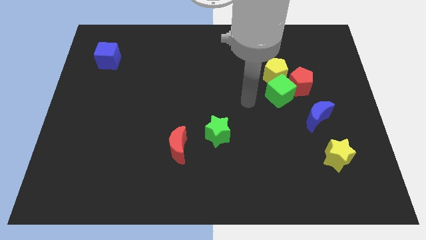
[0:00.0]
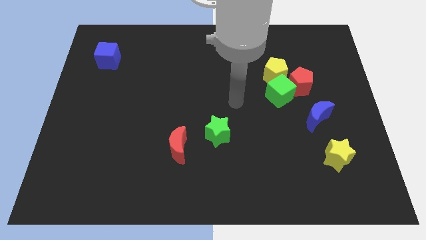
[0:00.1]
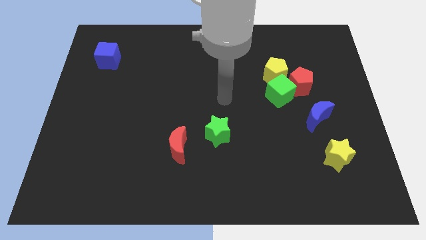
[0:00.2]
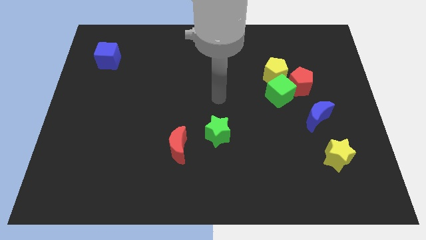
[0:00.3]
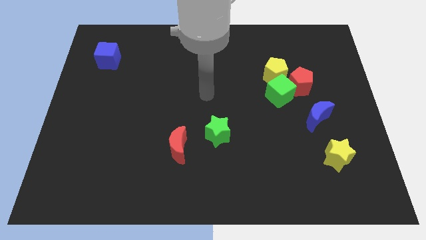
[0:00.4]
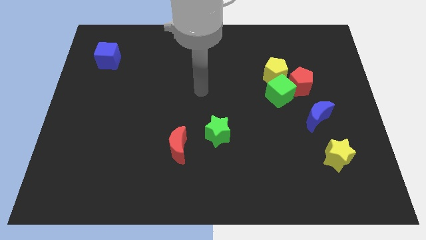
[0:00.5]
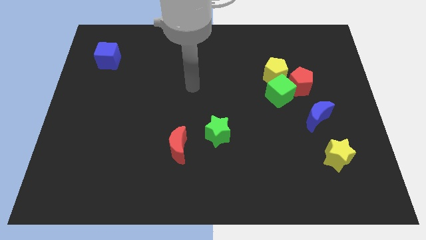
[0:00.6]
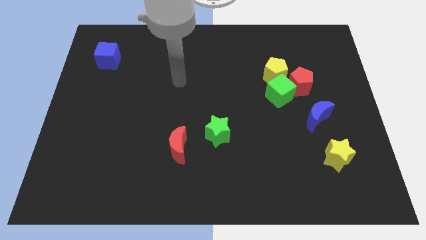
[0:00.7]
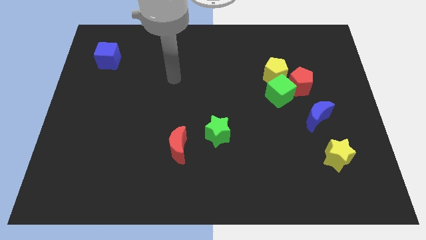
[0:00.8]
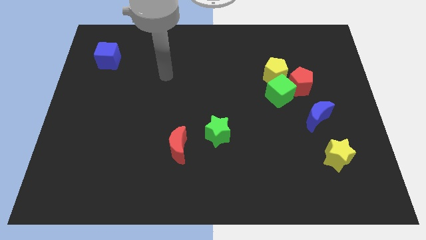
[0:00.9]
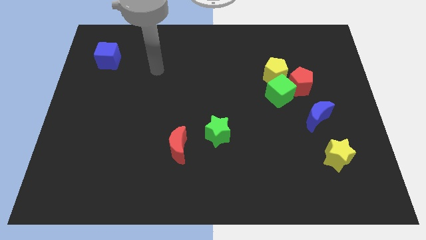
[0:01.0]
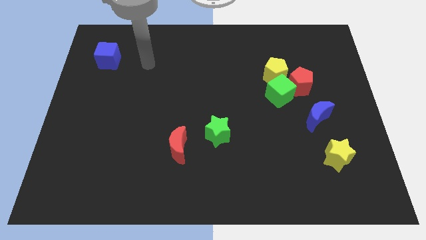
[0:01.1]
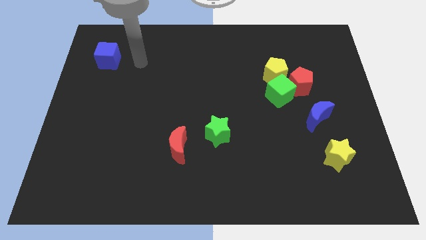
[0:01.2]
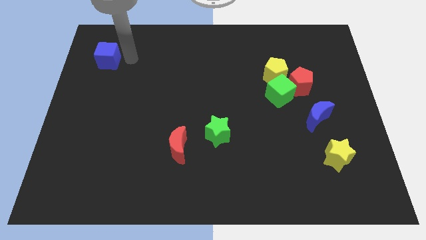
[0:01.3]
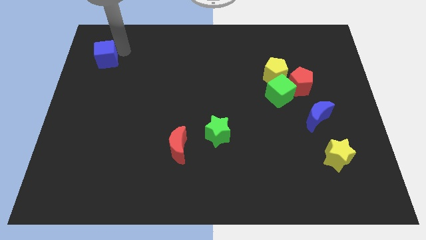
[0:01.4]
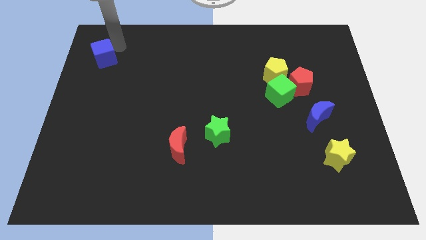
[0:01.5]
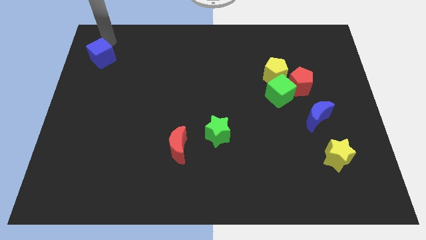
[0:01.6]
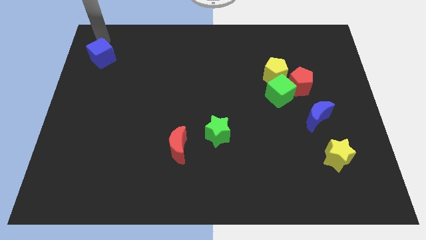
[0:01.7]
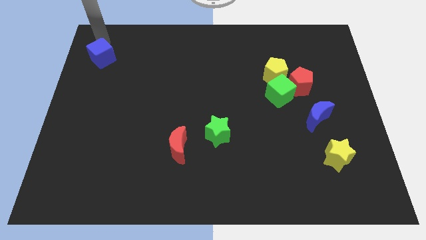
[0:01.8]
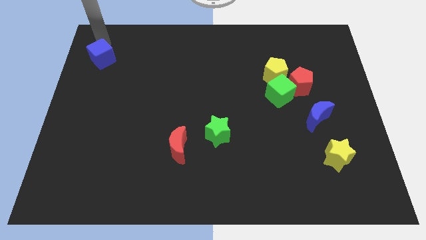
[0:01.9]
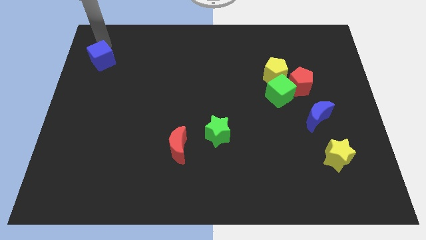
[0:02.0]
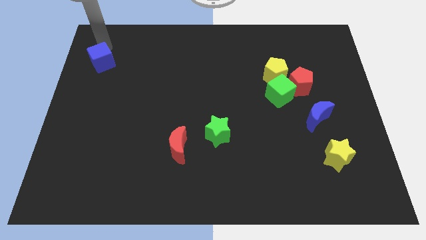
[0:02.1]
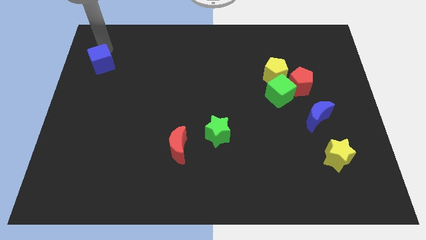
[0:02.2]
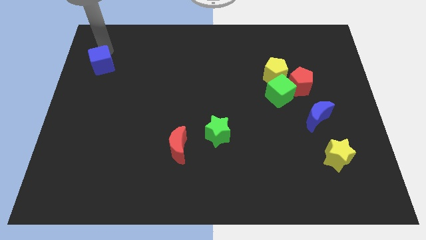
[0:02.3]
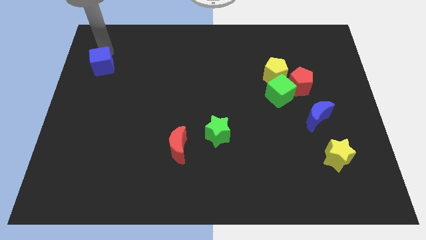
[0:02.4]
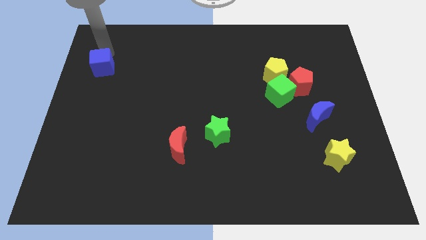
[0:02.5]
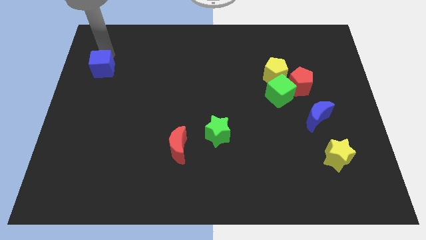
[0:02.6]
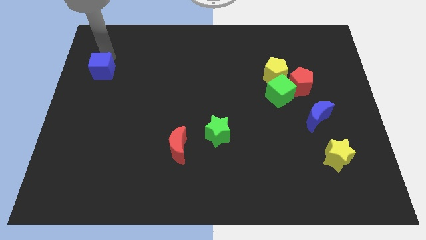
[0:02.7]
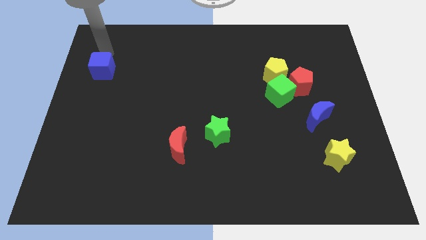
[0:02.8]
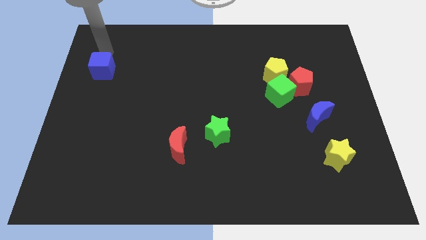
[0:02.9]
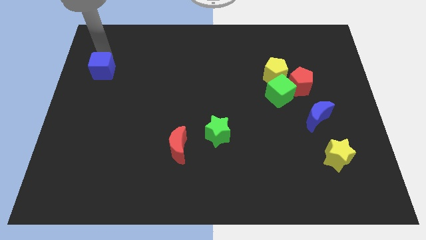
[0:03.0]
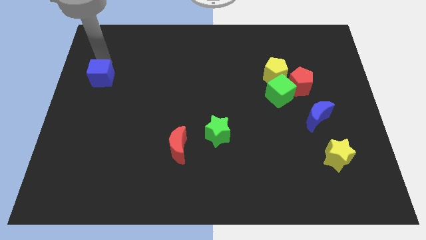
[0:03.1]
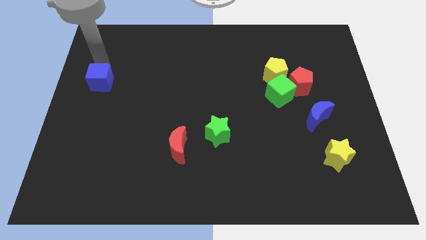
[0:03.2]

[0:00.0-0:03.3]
move the blue cube slightly down

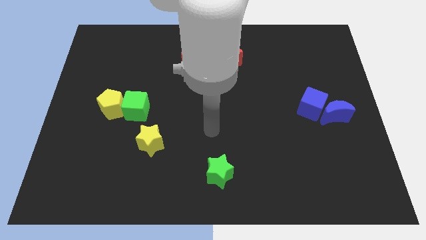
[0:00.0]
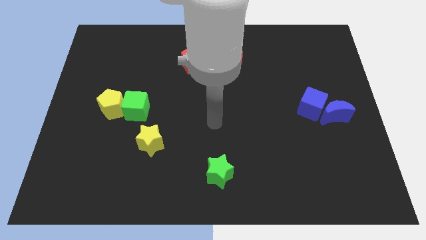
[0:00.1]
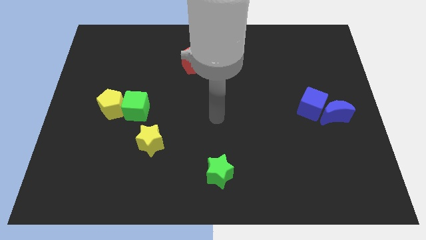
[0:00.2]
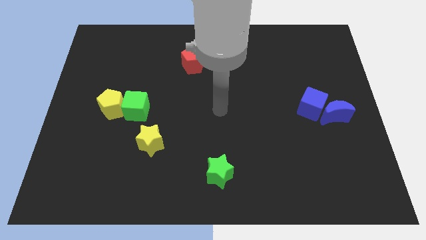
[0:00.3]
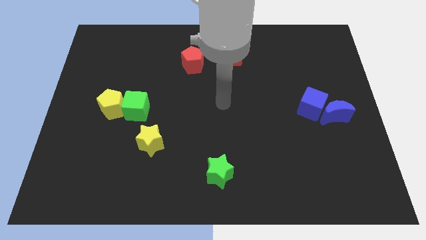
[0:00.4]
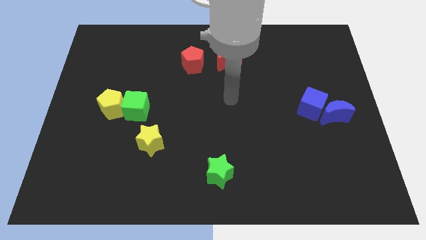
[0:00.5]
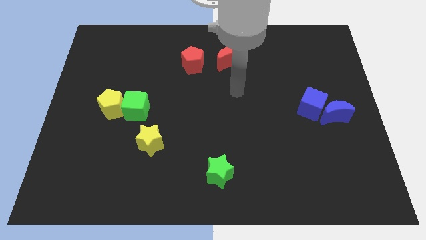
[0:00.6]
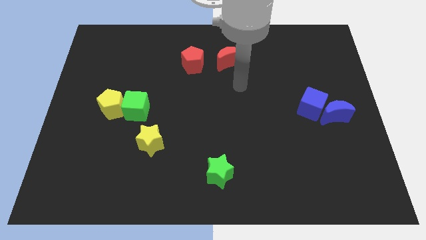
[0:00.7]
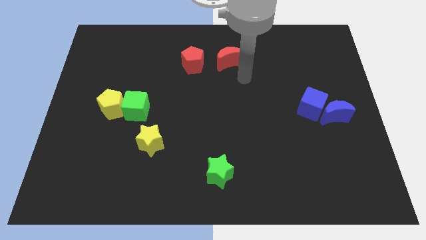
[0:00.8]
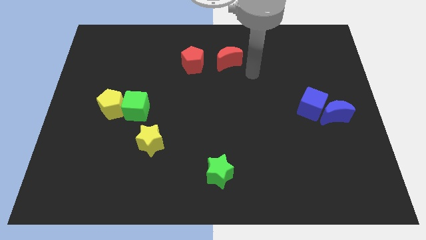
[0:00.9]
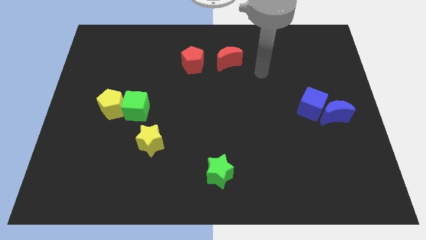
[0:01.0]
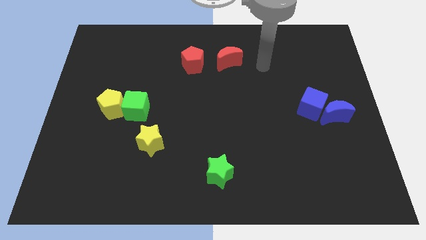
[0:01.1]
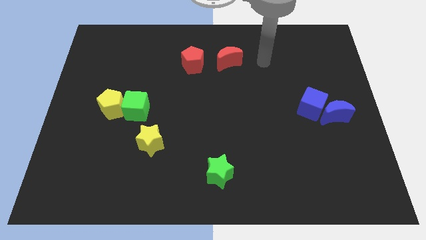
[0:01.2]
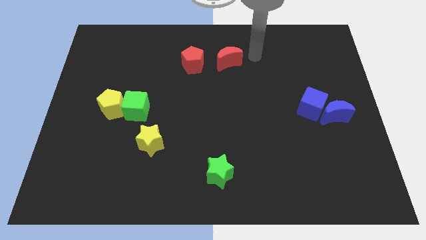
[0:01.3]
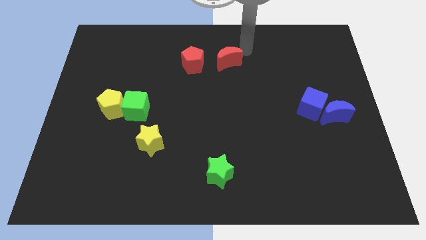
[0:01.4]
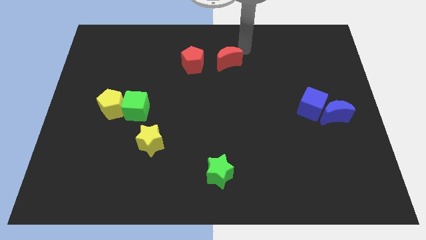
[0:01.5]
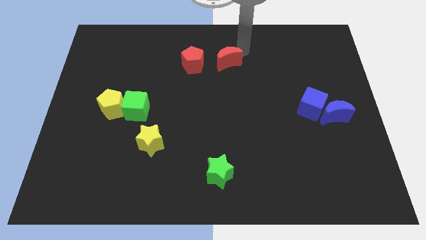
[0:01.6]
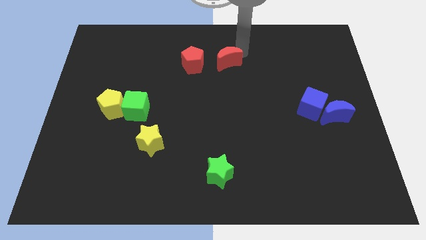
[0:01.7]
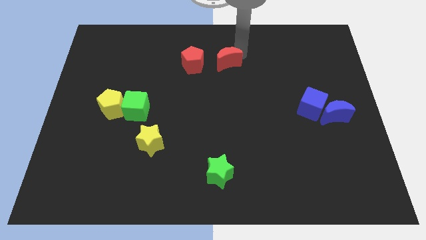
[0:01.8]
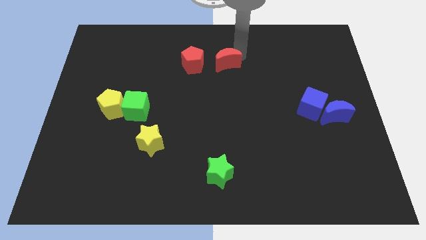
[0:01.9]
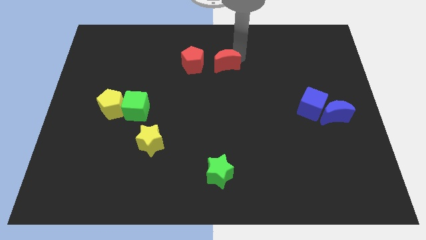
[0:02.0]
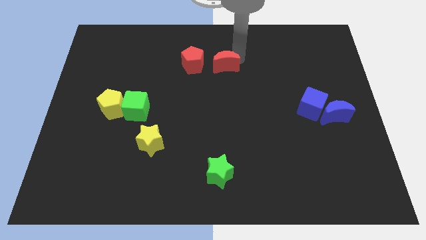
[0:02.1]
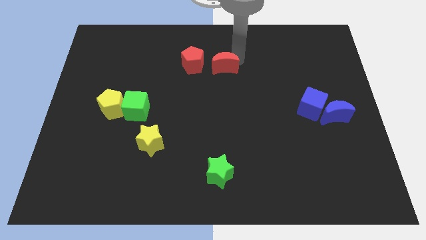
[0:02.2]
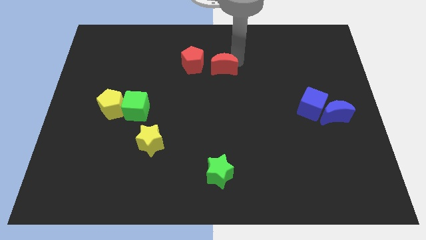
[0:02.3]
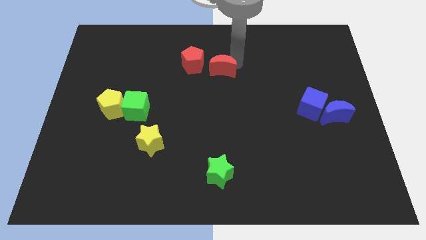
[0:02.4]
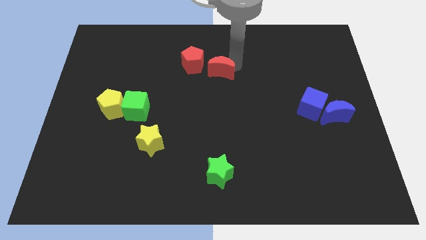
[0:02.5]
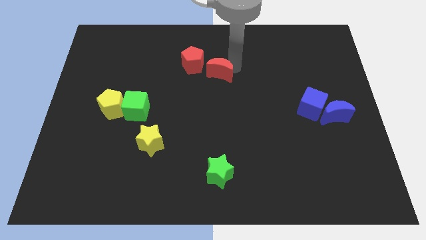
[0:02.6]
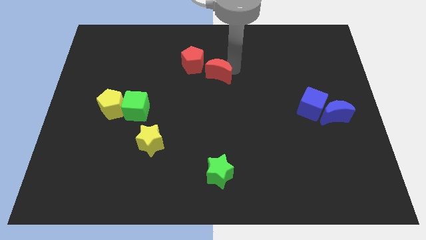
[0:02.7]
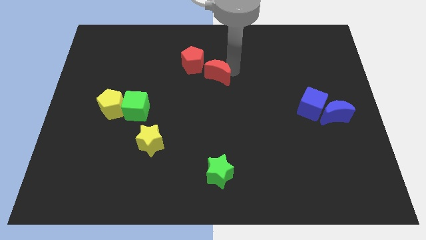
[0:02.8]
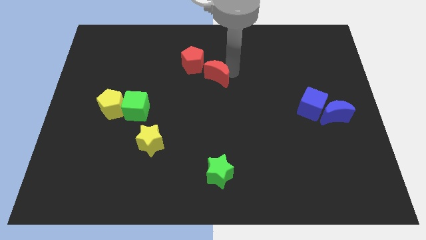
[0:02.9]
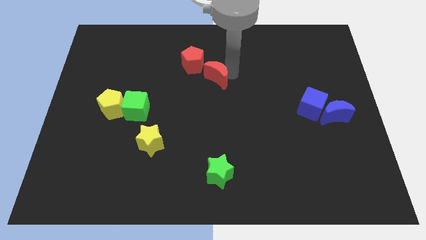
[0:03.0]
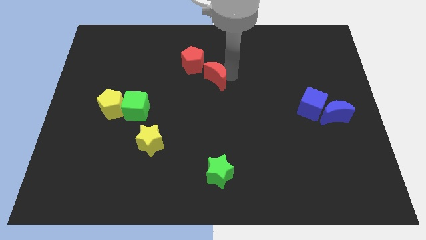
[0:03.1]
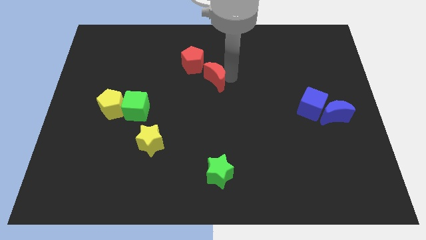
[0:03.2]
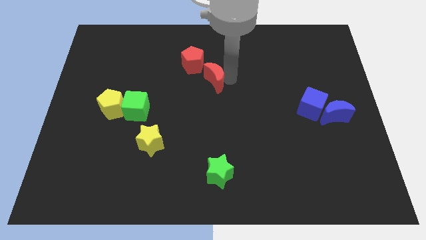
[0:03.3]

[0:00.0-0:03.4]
push the red moon a little bit diagonally downwards and to the left

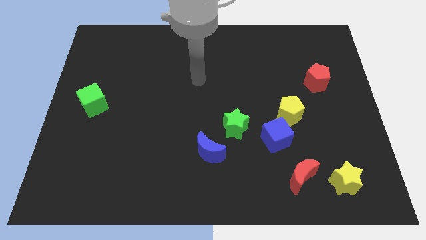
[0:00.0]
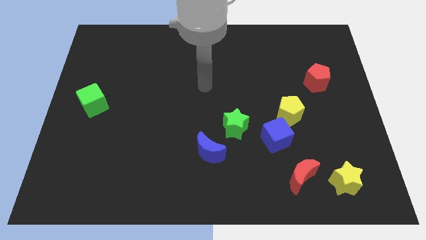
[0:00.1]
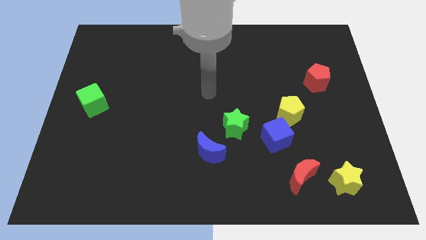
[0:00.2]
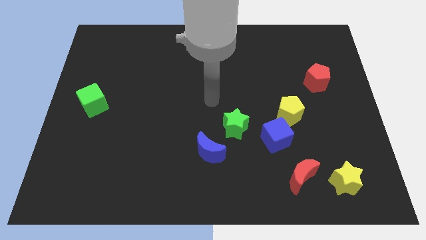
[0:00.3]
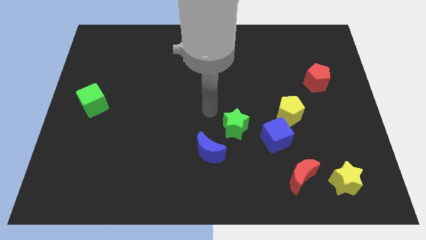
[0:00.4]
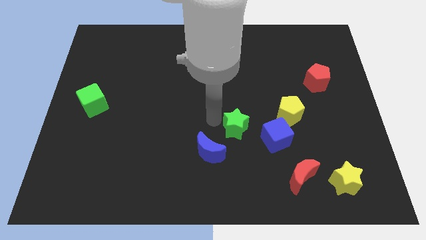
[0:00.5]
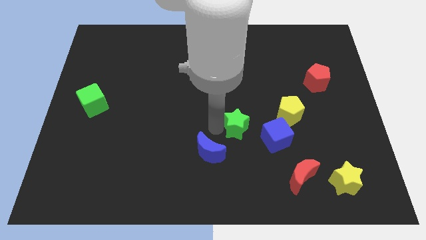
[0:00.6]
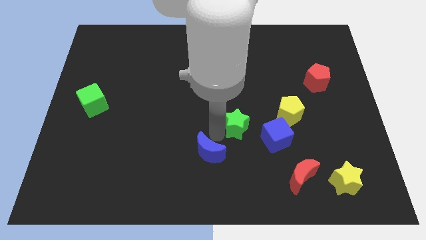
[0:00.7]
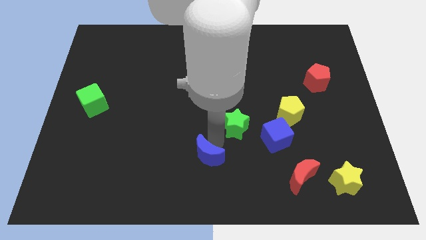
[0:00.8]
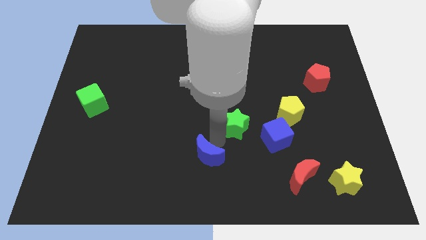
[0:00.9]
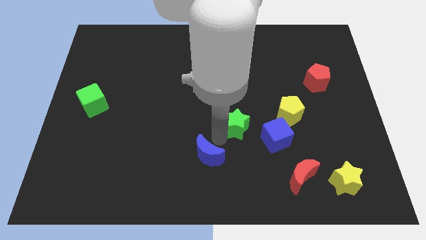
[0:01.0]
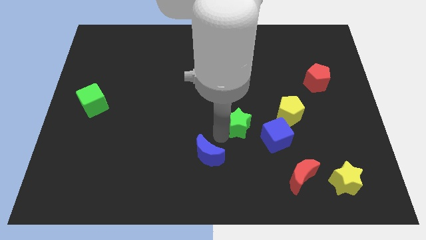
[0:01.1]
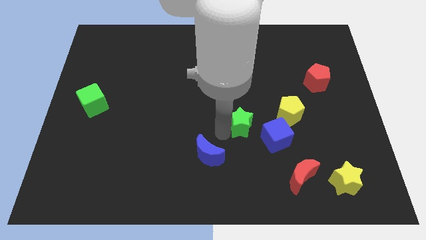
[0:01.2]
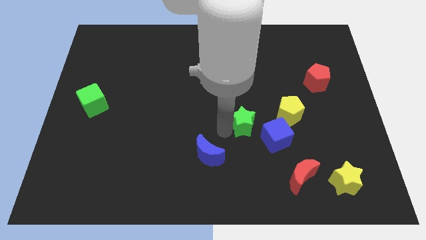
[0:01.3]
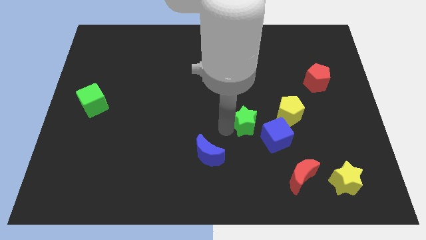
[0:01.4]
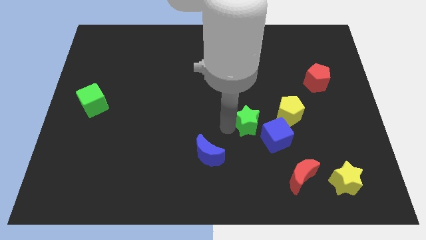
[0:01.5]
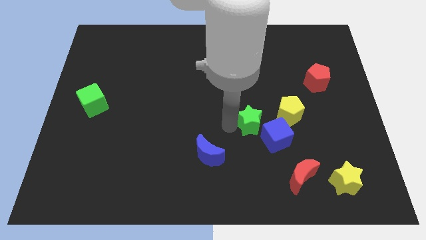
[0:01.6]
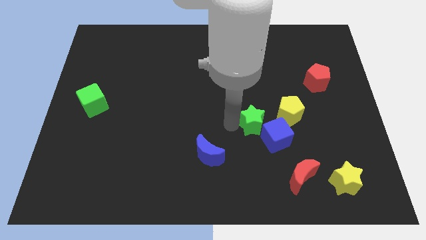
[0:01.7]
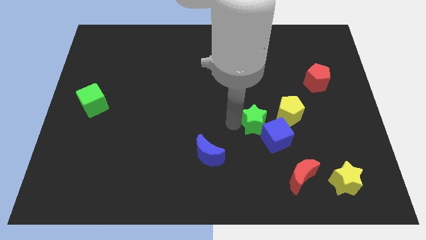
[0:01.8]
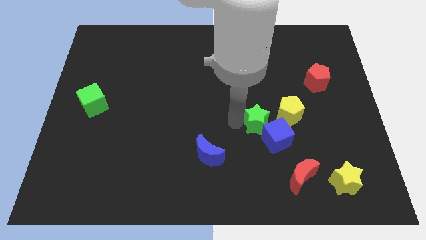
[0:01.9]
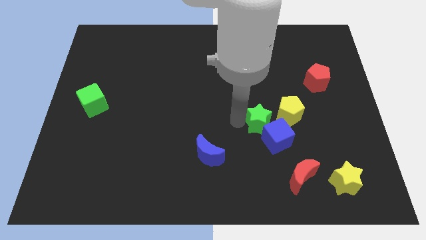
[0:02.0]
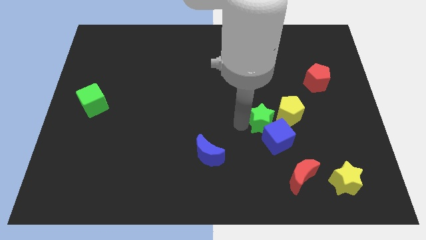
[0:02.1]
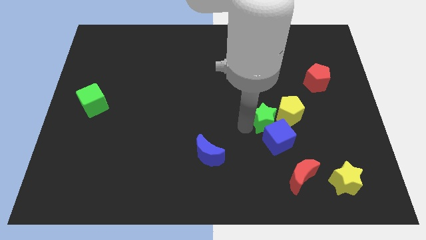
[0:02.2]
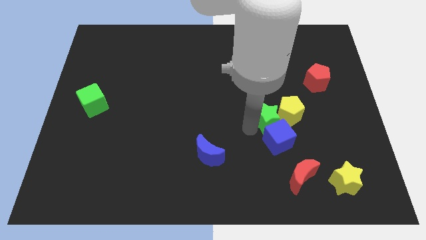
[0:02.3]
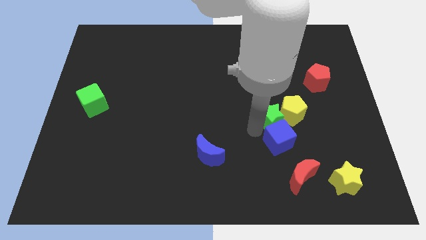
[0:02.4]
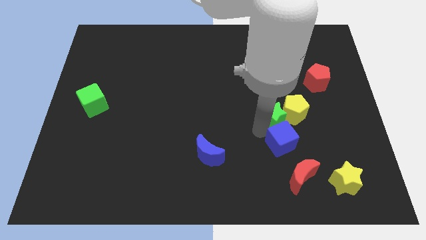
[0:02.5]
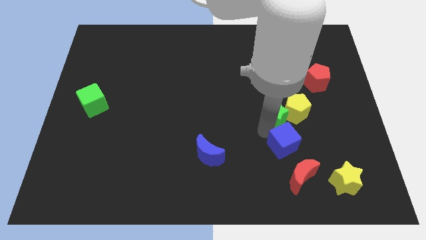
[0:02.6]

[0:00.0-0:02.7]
slightly slide the green star diagonally upwards and right
